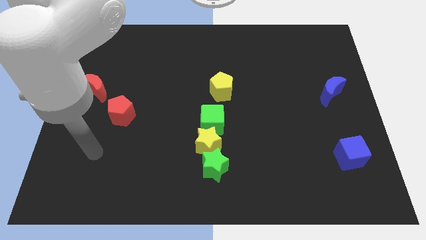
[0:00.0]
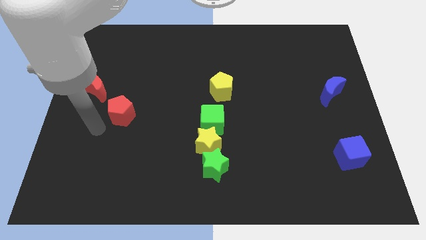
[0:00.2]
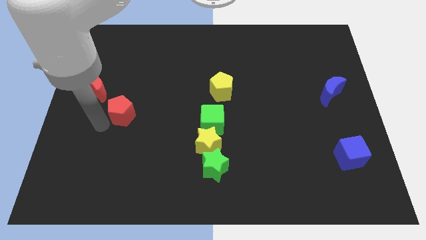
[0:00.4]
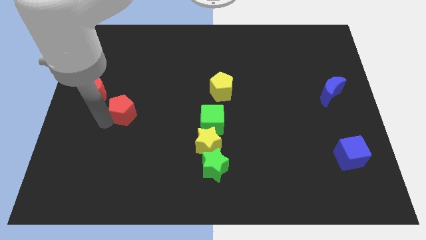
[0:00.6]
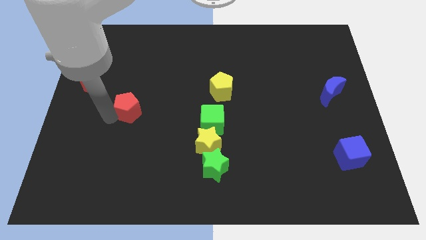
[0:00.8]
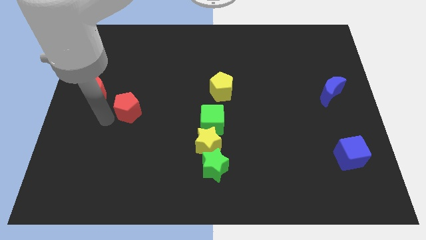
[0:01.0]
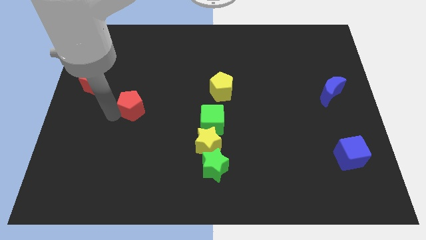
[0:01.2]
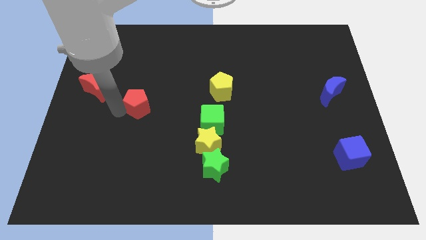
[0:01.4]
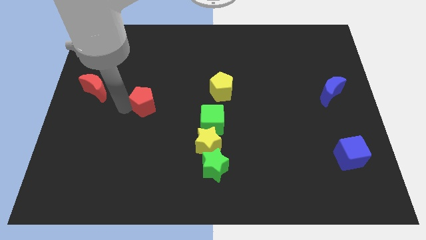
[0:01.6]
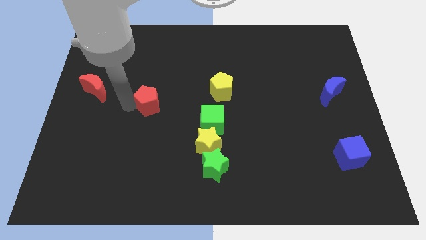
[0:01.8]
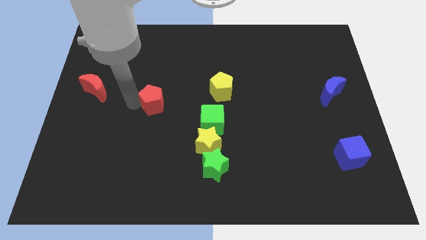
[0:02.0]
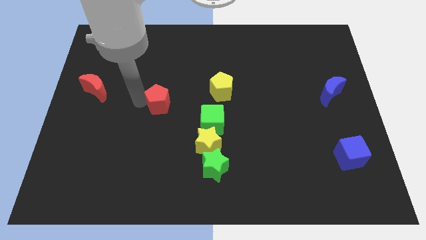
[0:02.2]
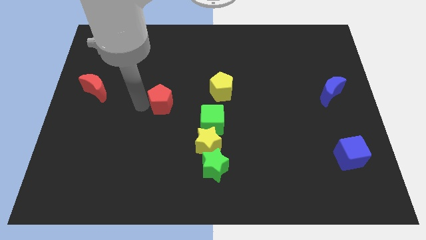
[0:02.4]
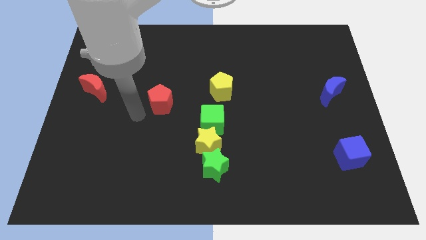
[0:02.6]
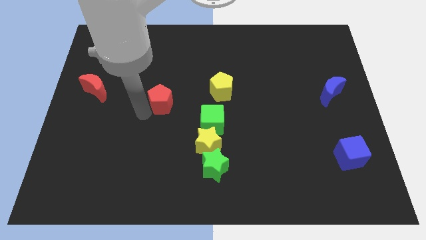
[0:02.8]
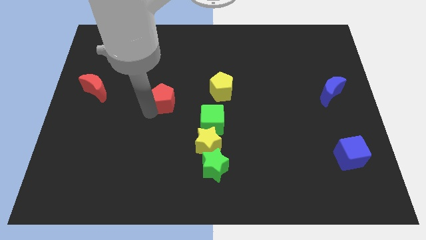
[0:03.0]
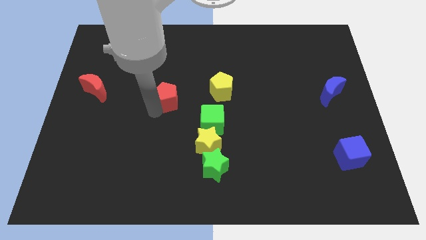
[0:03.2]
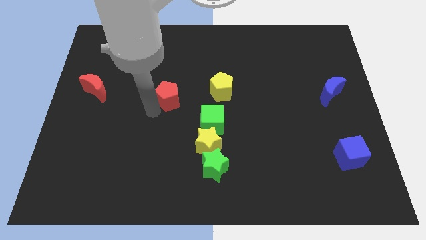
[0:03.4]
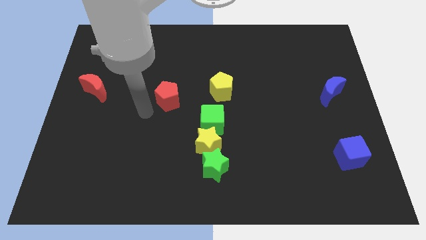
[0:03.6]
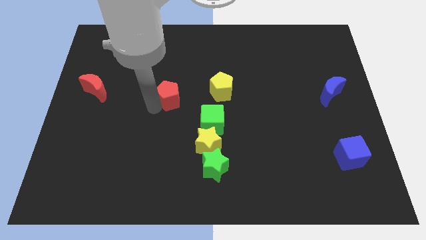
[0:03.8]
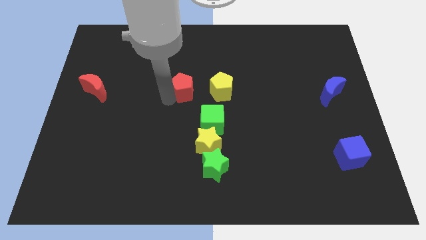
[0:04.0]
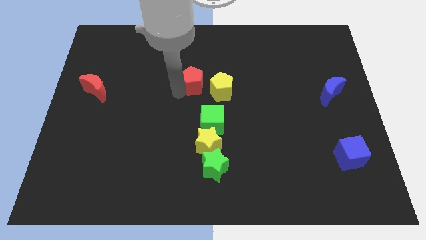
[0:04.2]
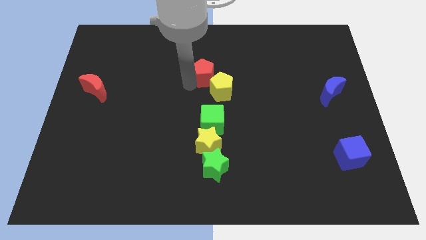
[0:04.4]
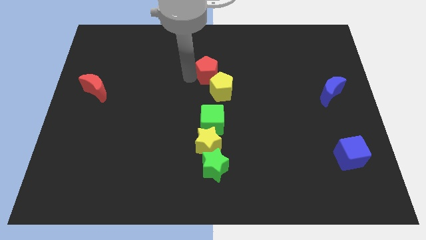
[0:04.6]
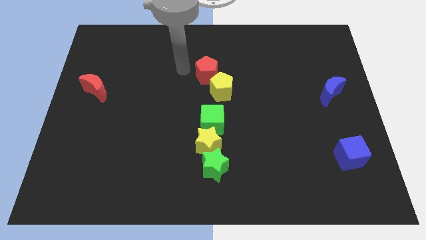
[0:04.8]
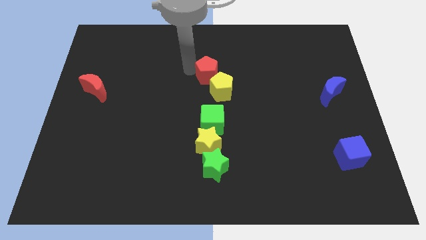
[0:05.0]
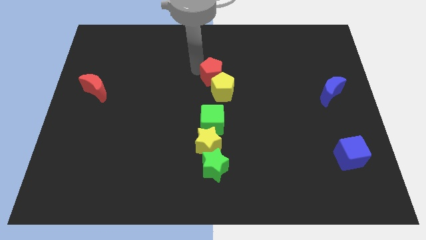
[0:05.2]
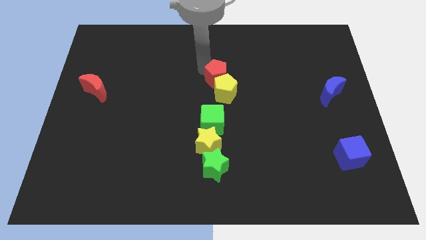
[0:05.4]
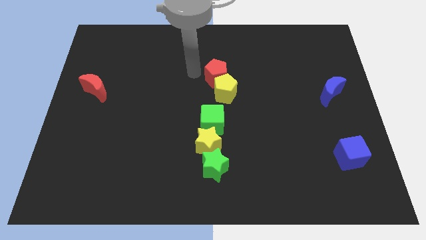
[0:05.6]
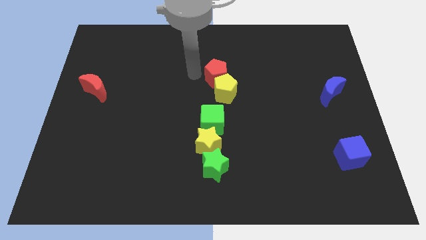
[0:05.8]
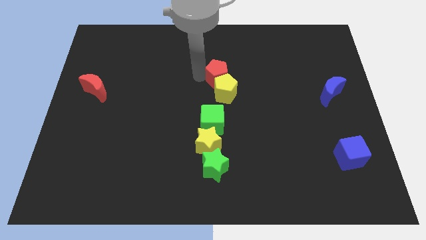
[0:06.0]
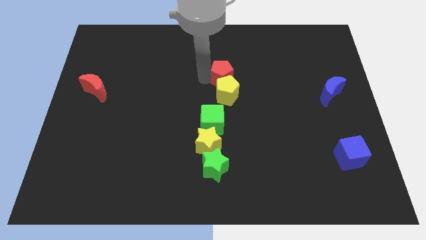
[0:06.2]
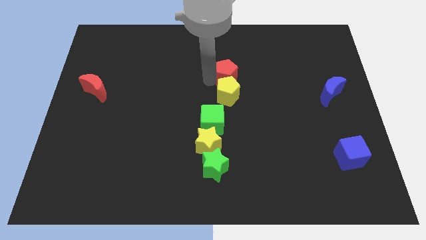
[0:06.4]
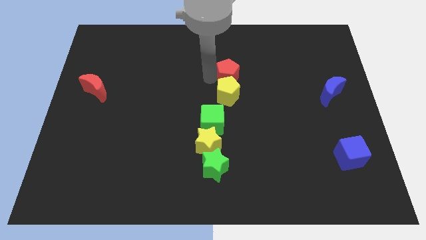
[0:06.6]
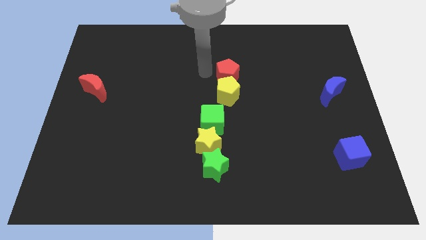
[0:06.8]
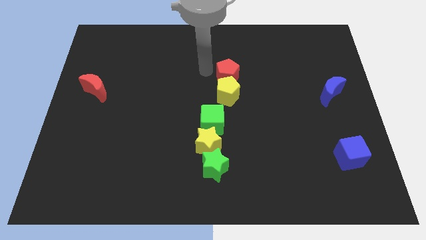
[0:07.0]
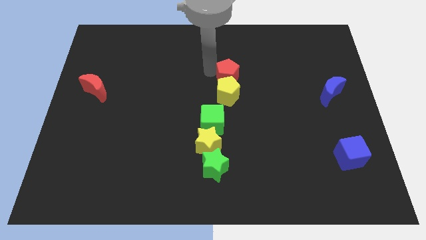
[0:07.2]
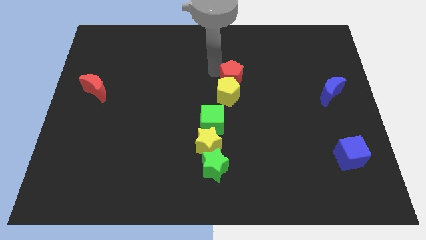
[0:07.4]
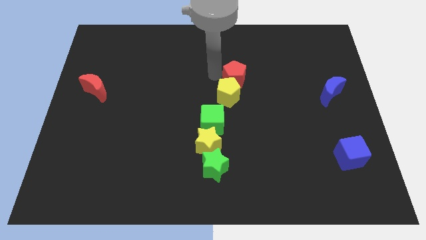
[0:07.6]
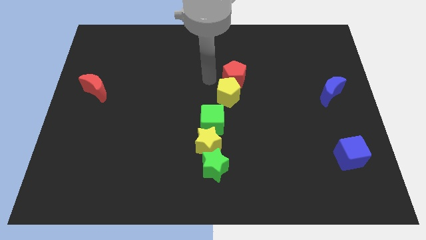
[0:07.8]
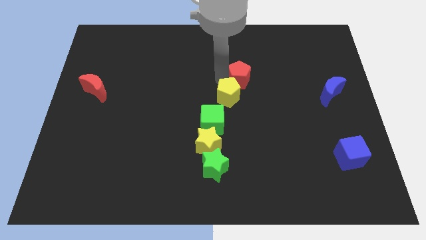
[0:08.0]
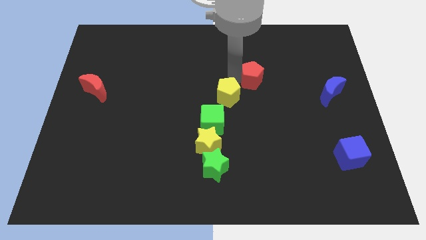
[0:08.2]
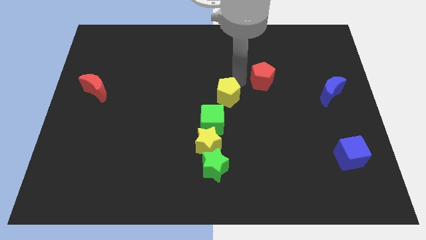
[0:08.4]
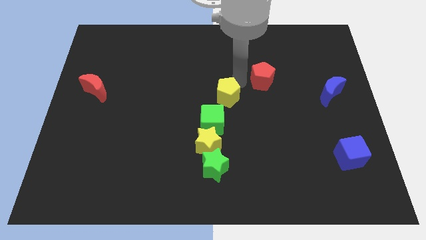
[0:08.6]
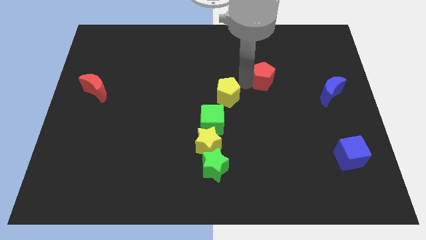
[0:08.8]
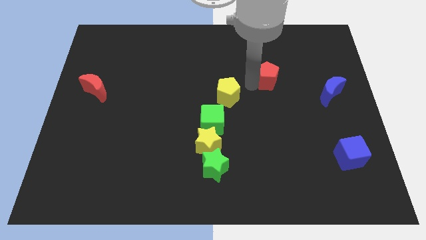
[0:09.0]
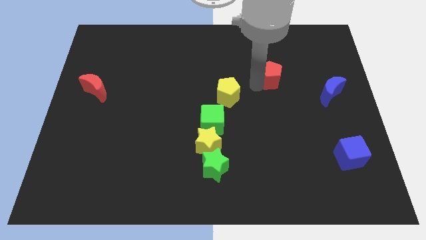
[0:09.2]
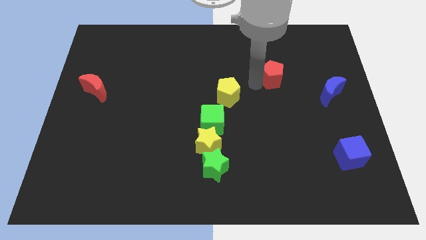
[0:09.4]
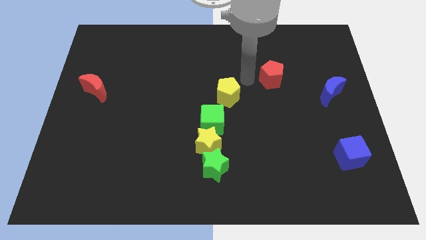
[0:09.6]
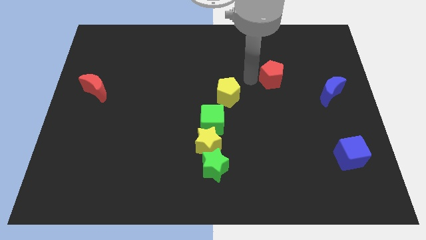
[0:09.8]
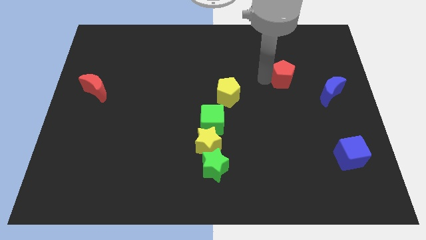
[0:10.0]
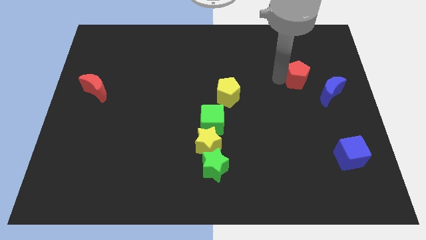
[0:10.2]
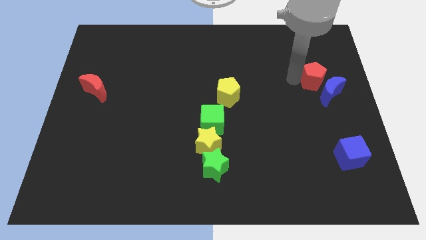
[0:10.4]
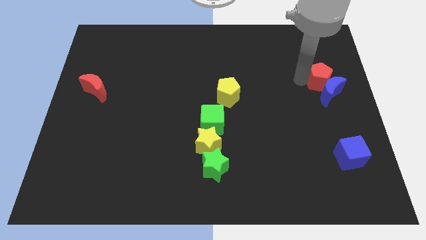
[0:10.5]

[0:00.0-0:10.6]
slide the red pentagon to the right side

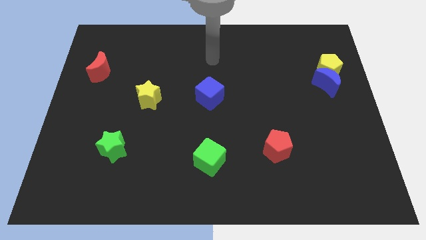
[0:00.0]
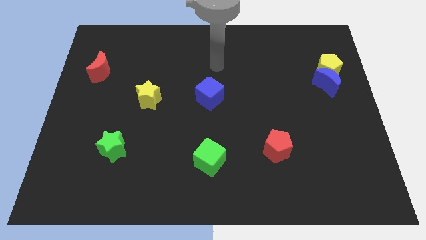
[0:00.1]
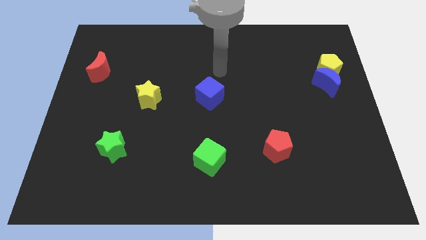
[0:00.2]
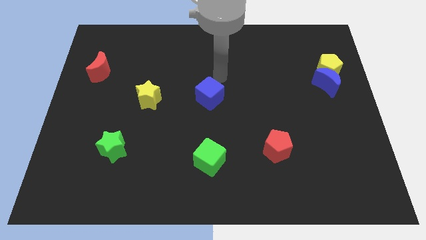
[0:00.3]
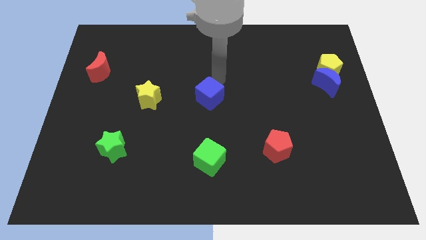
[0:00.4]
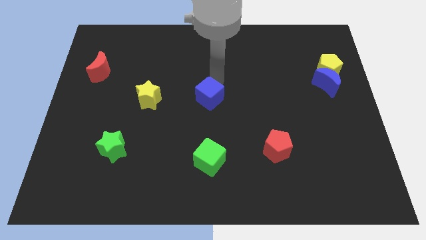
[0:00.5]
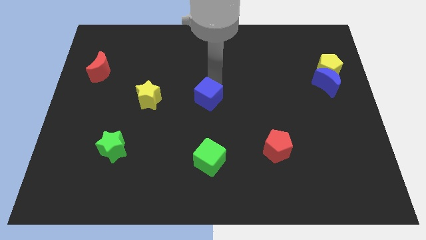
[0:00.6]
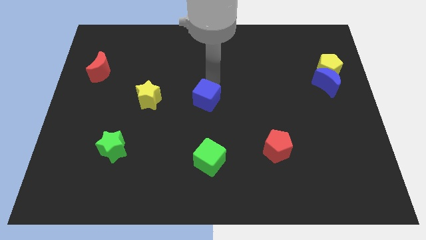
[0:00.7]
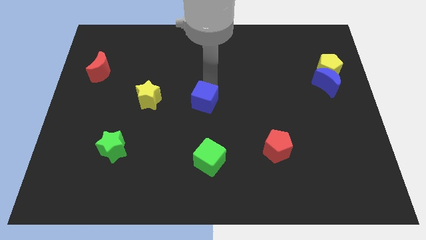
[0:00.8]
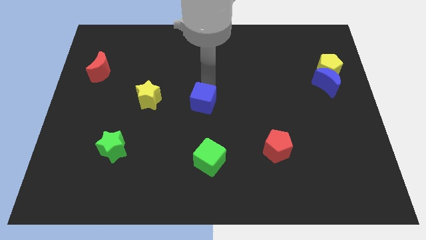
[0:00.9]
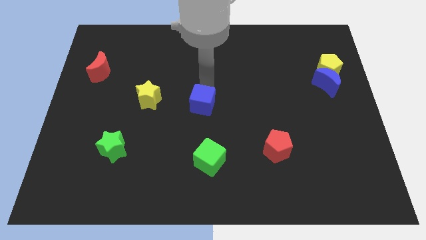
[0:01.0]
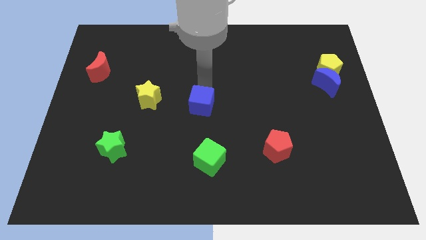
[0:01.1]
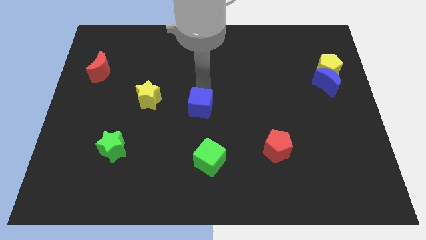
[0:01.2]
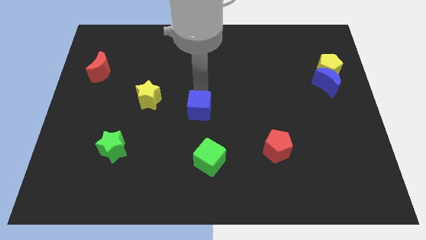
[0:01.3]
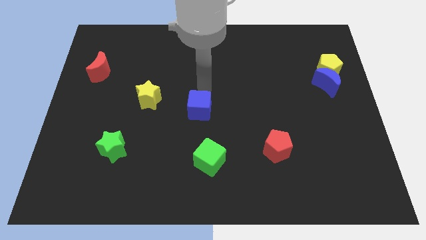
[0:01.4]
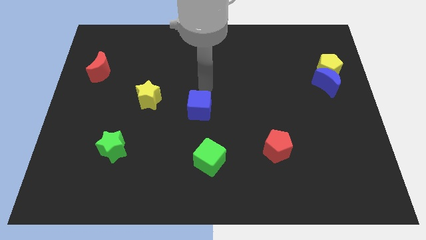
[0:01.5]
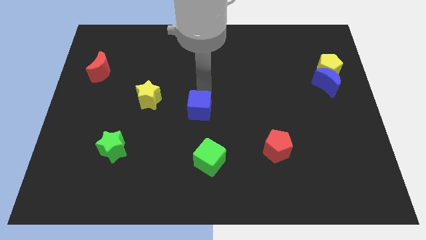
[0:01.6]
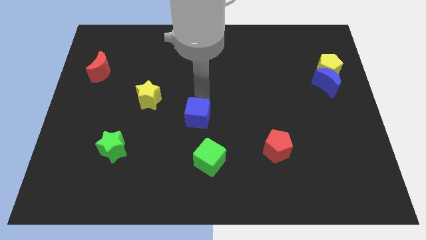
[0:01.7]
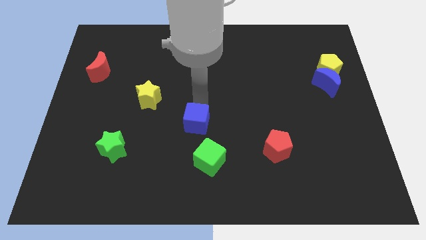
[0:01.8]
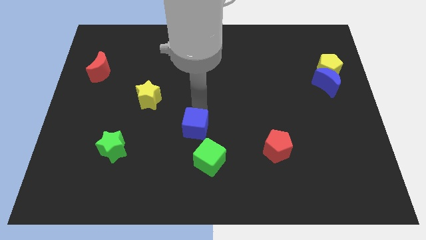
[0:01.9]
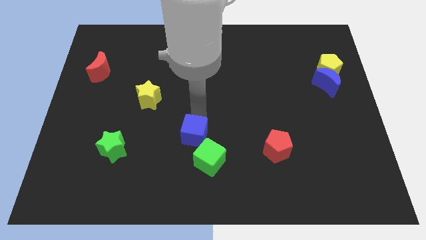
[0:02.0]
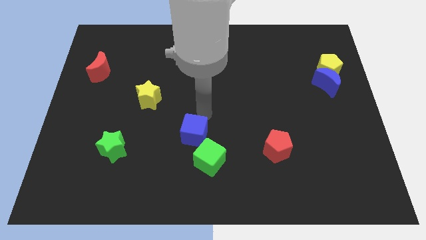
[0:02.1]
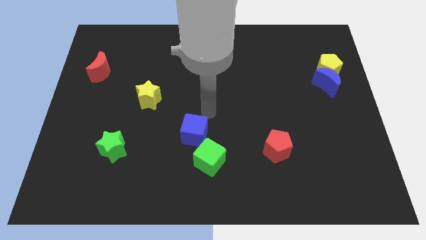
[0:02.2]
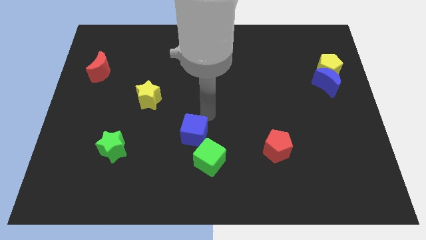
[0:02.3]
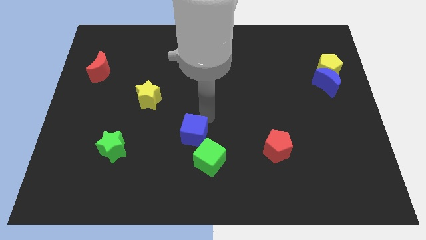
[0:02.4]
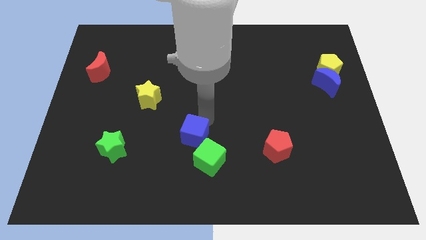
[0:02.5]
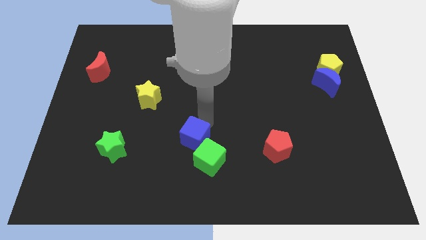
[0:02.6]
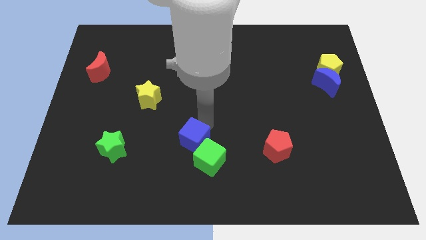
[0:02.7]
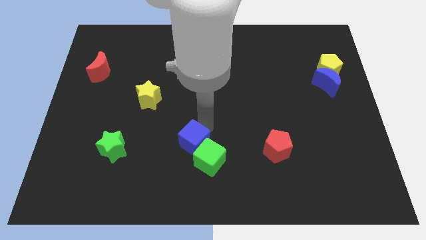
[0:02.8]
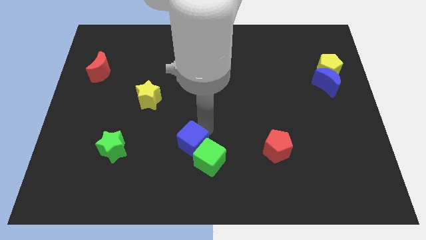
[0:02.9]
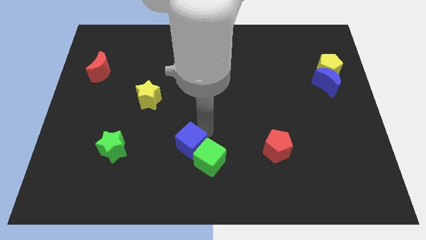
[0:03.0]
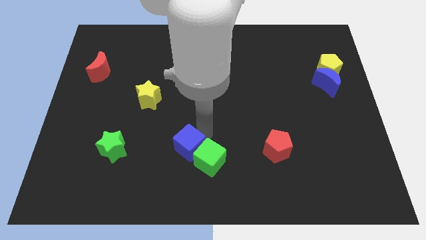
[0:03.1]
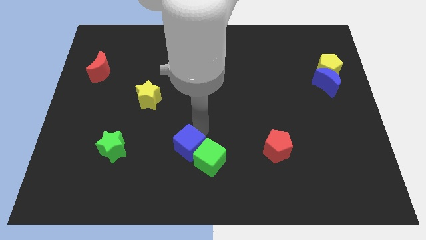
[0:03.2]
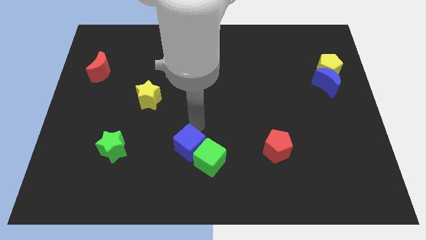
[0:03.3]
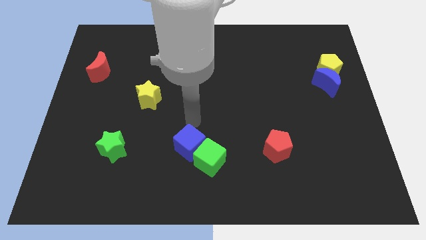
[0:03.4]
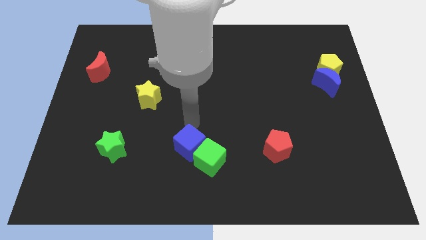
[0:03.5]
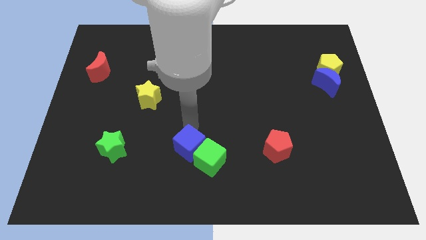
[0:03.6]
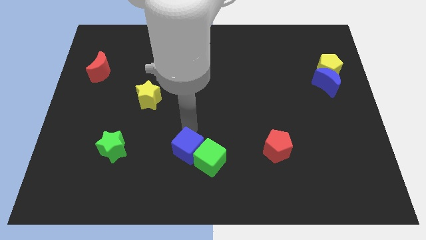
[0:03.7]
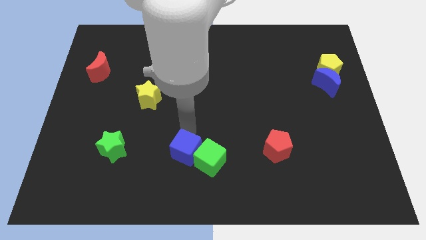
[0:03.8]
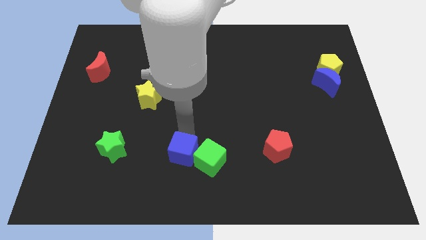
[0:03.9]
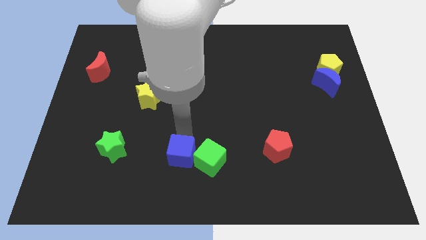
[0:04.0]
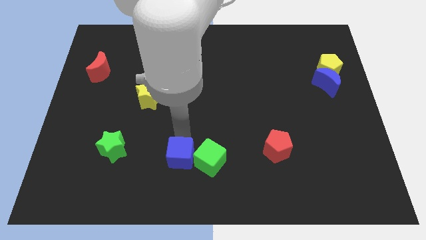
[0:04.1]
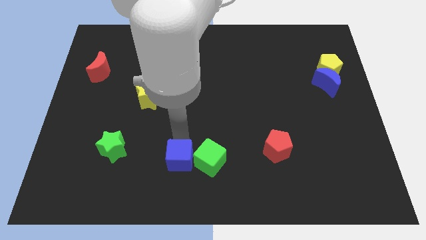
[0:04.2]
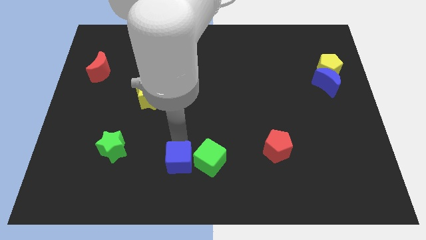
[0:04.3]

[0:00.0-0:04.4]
move the blue cube to the bottom
